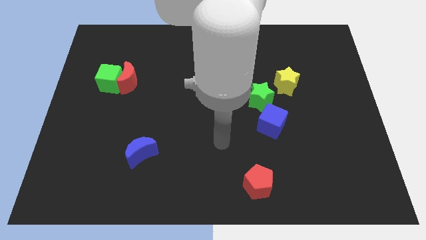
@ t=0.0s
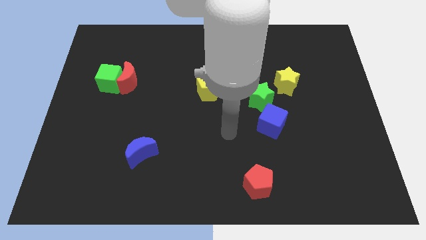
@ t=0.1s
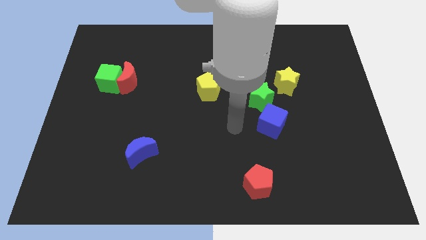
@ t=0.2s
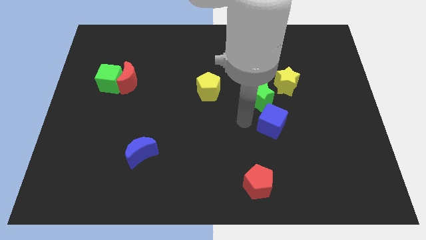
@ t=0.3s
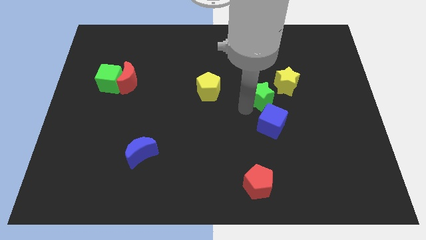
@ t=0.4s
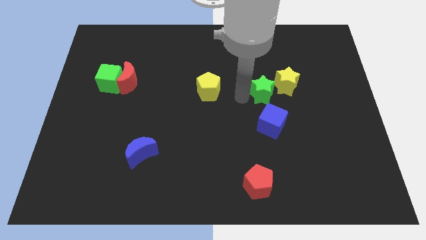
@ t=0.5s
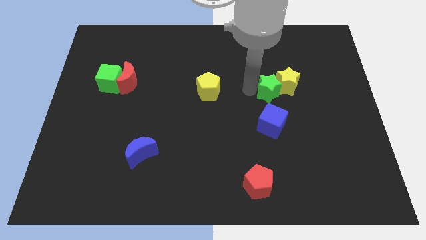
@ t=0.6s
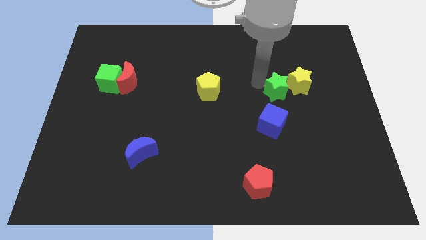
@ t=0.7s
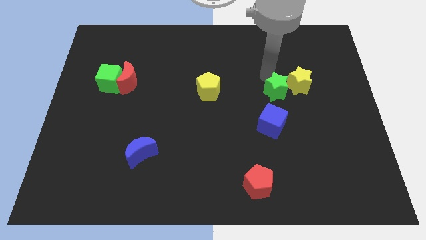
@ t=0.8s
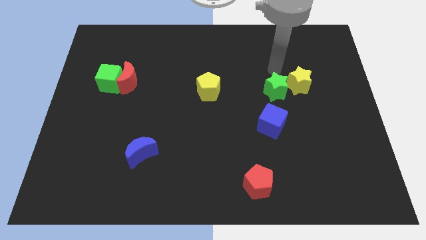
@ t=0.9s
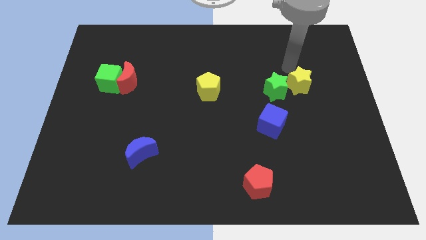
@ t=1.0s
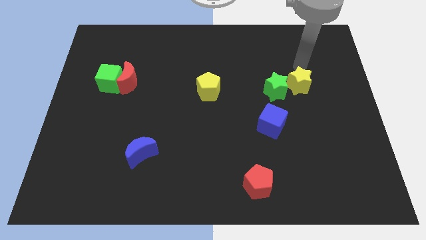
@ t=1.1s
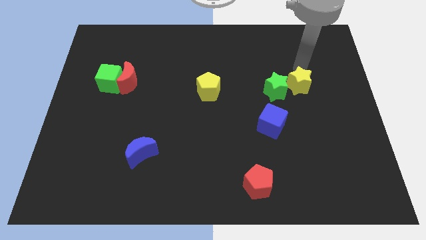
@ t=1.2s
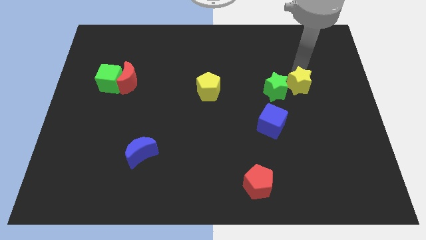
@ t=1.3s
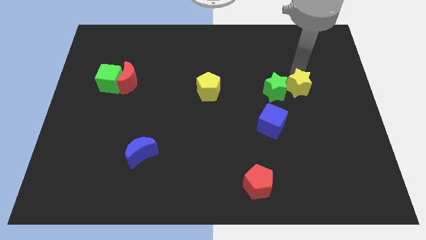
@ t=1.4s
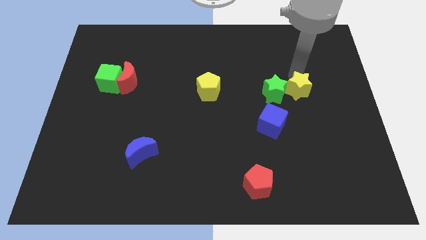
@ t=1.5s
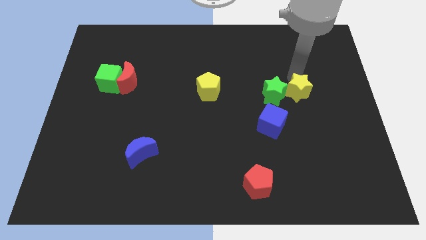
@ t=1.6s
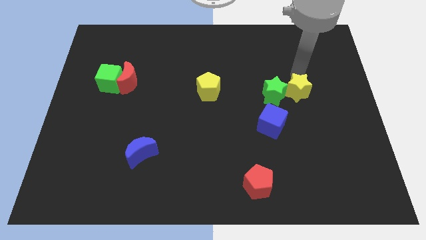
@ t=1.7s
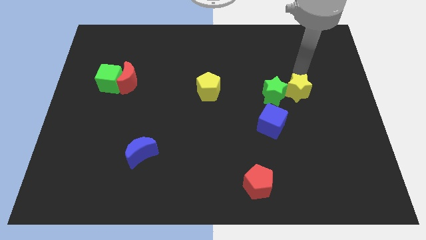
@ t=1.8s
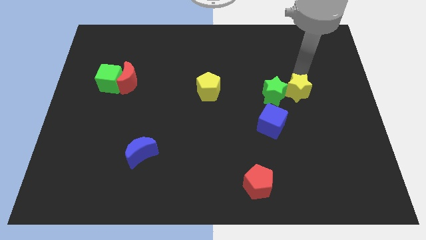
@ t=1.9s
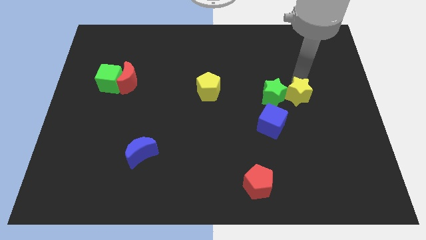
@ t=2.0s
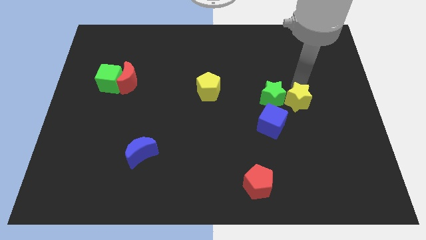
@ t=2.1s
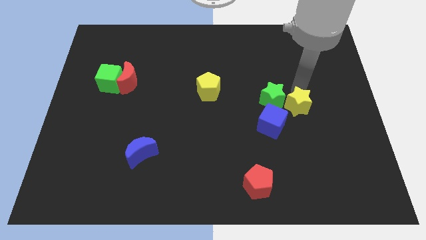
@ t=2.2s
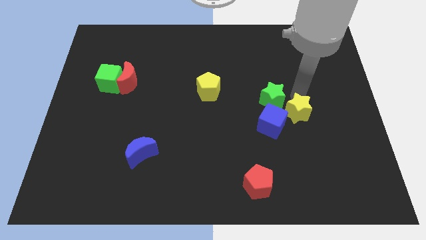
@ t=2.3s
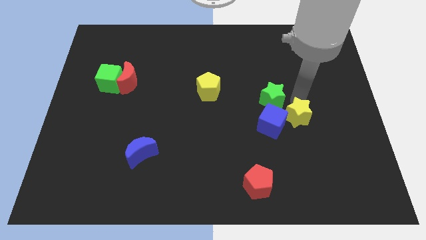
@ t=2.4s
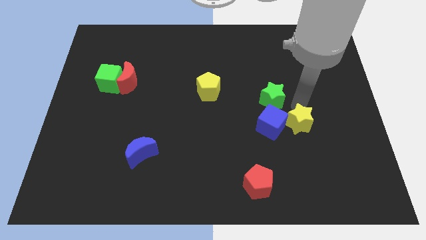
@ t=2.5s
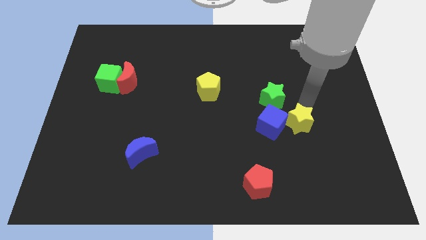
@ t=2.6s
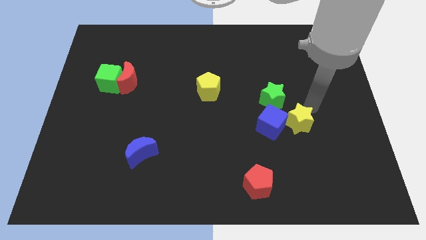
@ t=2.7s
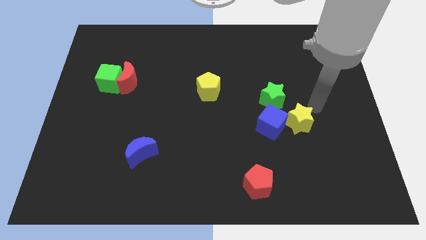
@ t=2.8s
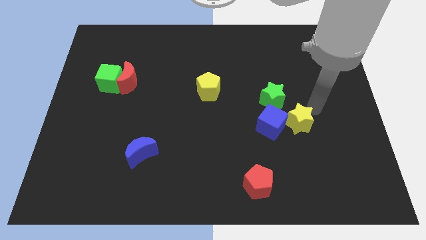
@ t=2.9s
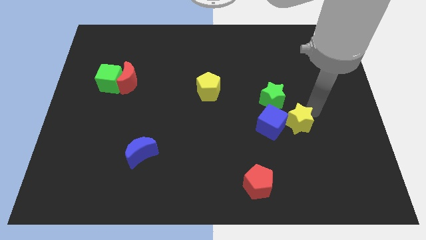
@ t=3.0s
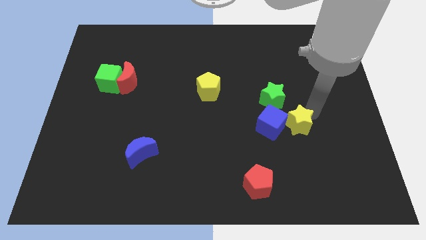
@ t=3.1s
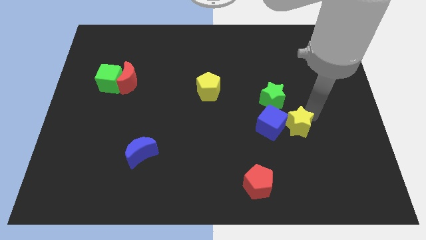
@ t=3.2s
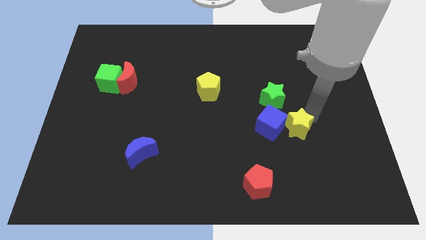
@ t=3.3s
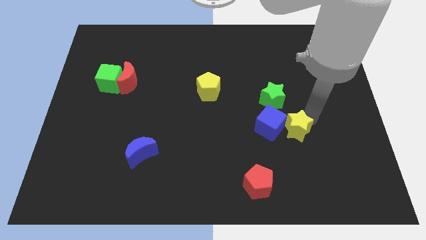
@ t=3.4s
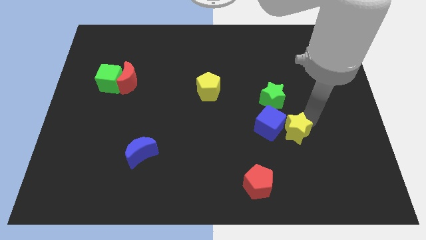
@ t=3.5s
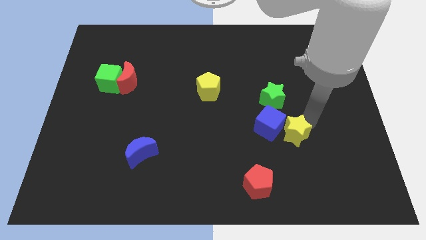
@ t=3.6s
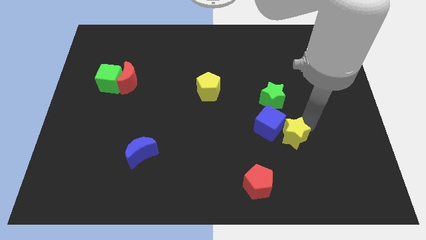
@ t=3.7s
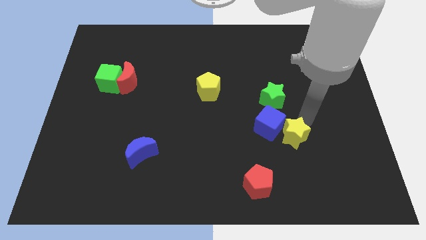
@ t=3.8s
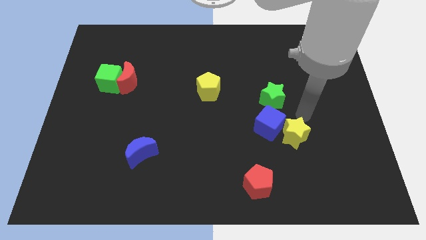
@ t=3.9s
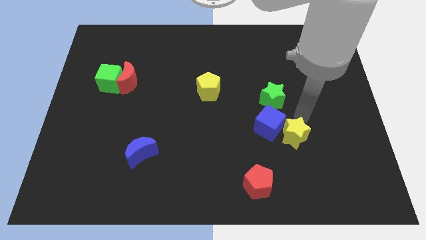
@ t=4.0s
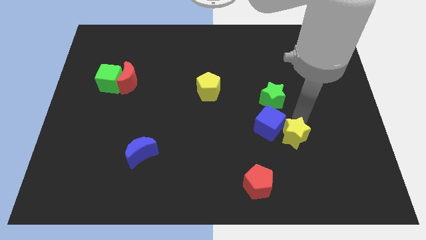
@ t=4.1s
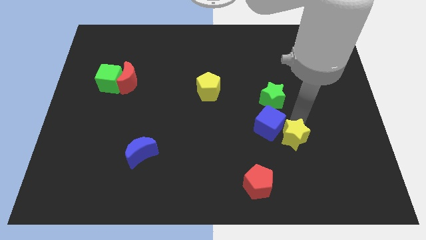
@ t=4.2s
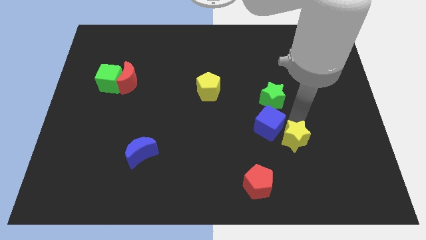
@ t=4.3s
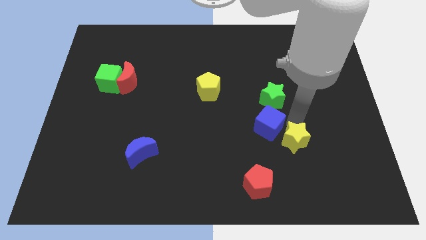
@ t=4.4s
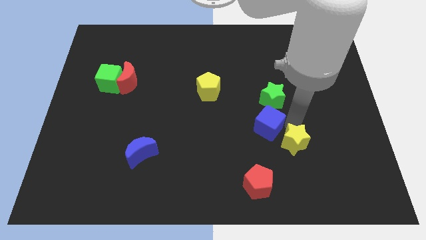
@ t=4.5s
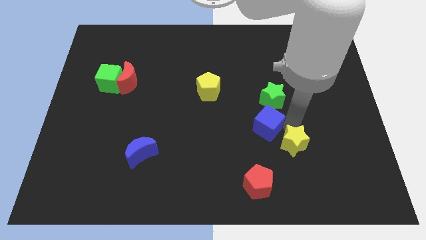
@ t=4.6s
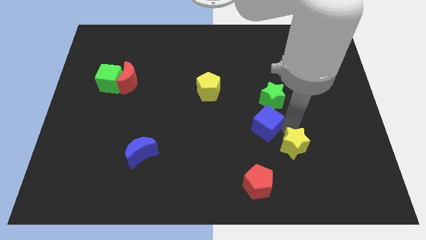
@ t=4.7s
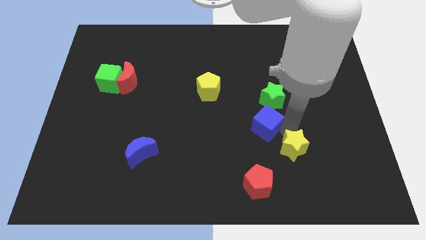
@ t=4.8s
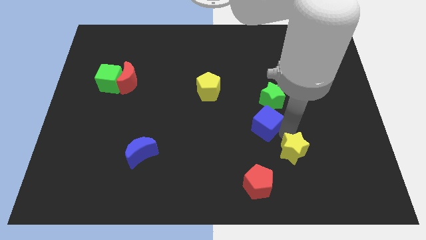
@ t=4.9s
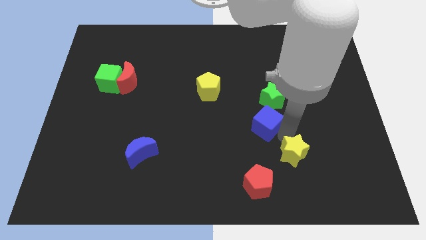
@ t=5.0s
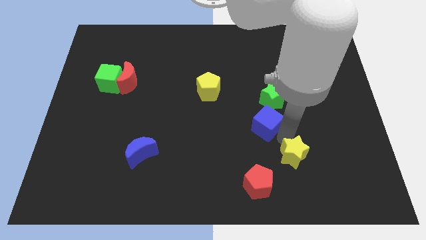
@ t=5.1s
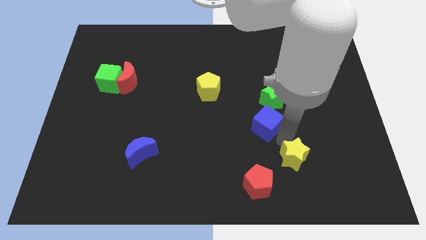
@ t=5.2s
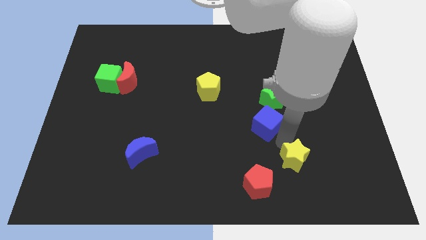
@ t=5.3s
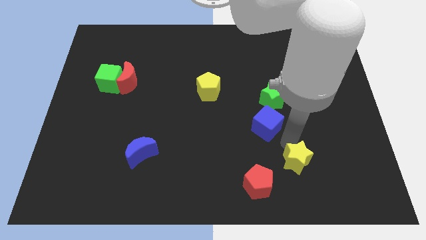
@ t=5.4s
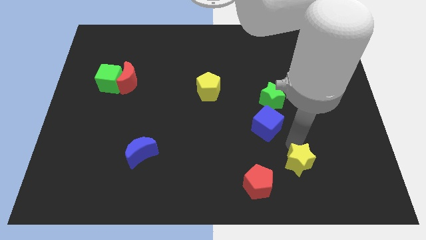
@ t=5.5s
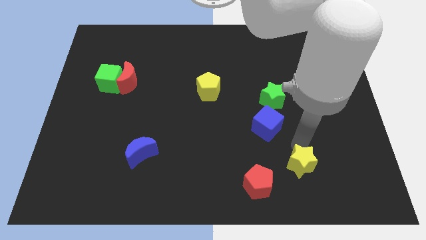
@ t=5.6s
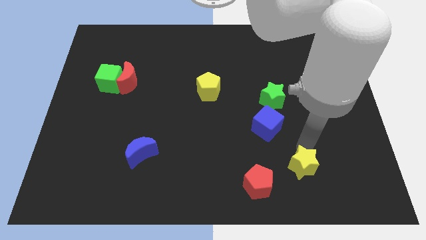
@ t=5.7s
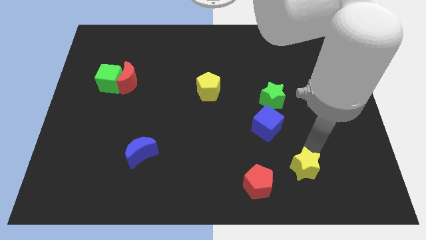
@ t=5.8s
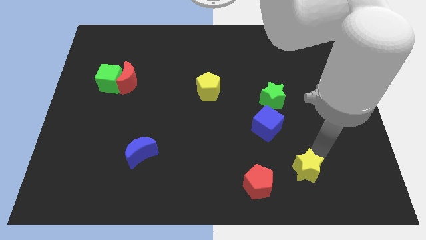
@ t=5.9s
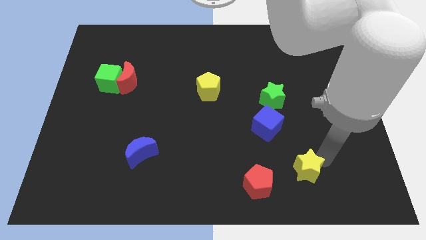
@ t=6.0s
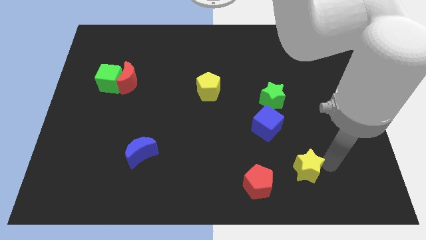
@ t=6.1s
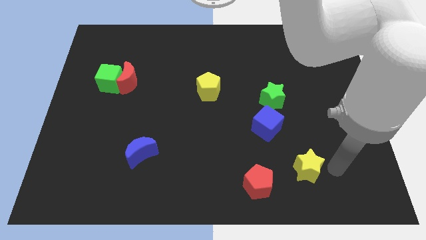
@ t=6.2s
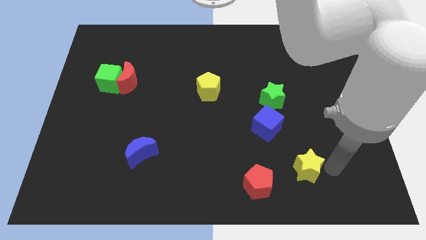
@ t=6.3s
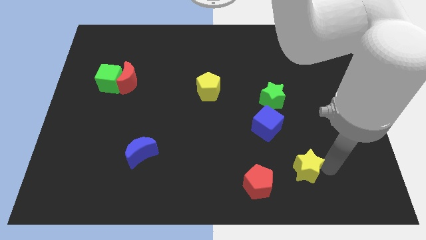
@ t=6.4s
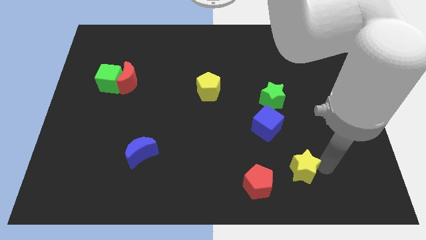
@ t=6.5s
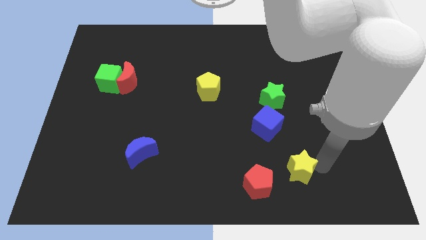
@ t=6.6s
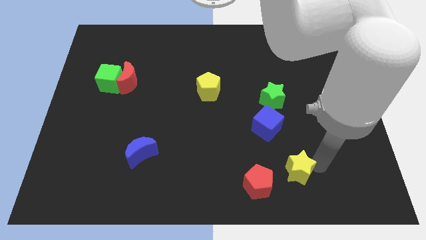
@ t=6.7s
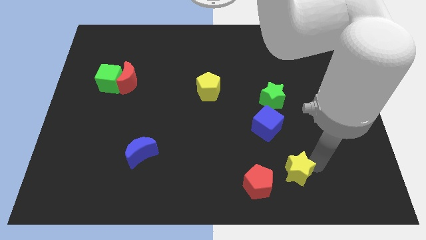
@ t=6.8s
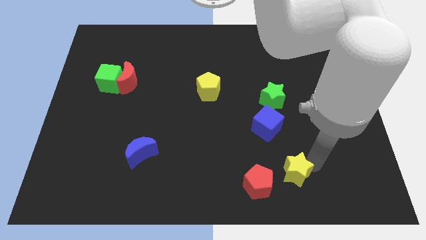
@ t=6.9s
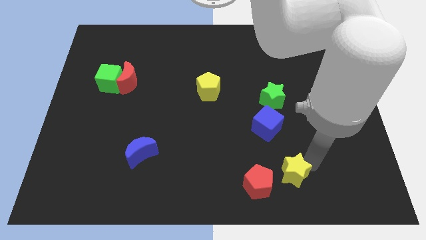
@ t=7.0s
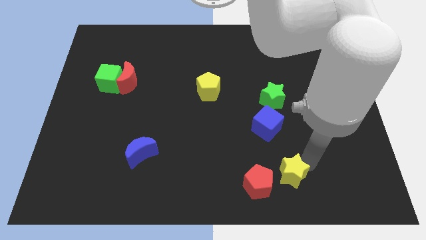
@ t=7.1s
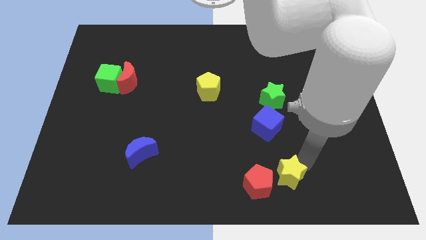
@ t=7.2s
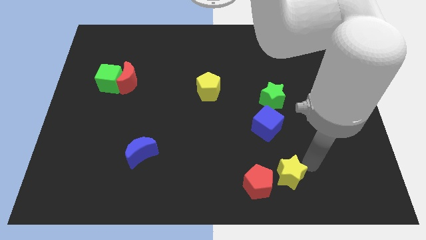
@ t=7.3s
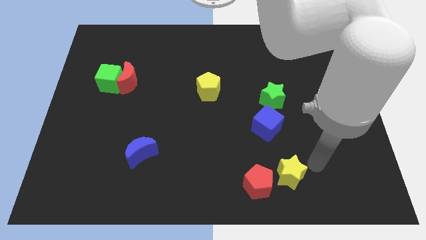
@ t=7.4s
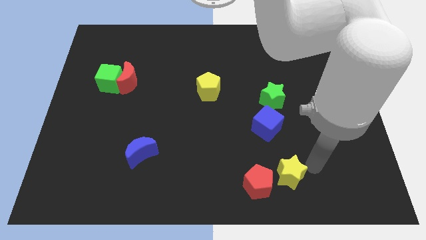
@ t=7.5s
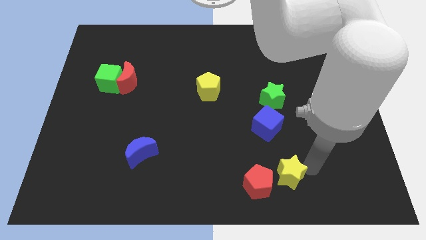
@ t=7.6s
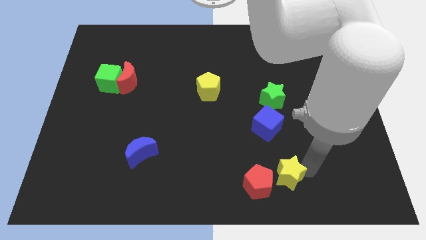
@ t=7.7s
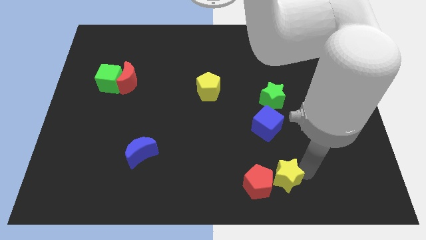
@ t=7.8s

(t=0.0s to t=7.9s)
put the yellow star close to the red pentagon
